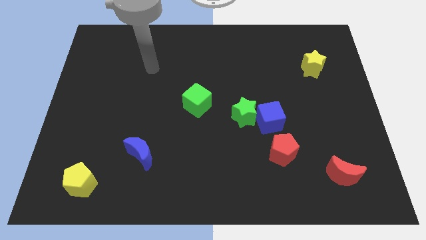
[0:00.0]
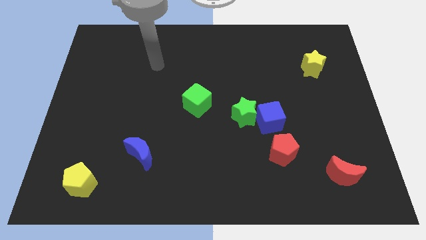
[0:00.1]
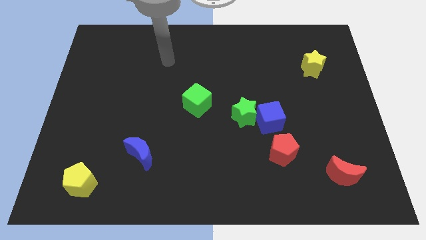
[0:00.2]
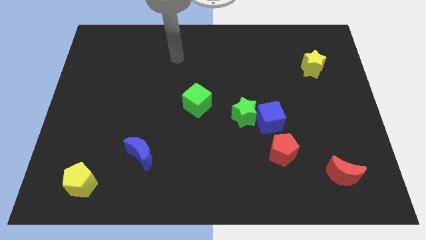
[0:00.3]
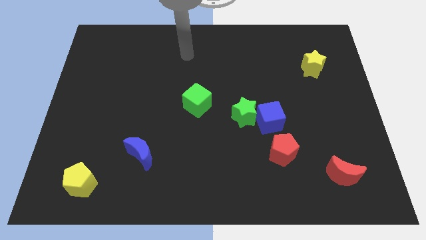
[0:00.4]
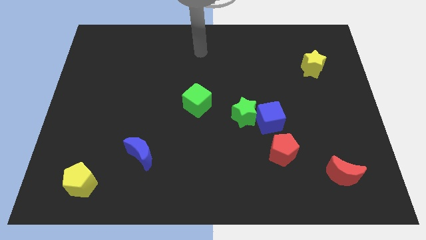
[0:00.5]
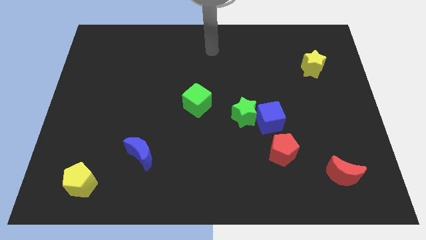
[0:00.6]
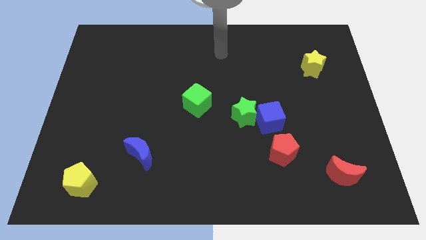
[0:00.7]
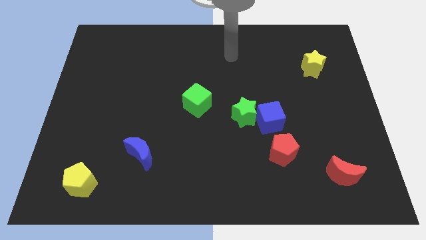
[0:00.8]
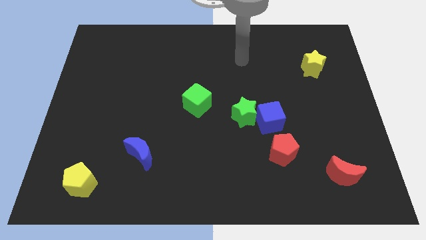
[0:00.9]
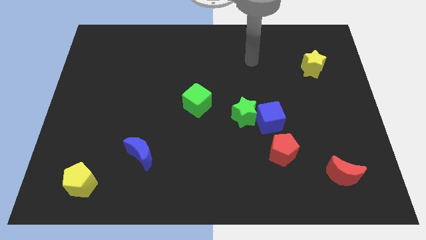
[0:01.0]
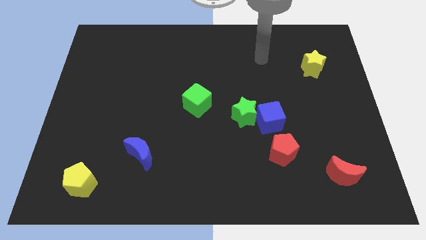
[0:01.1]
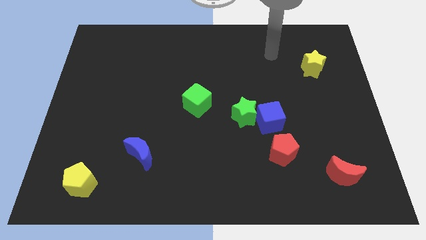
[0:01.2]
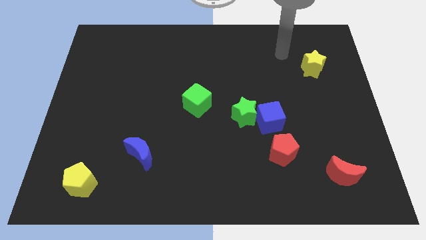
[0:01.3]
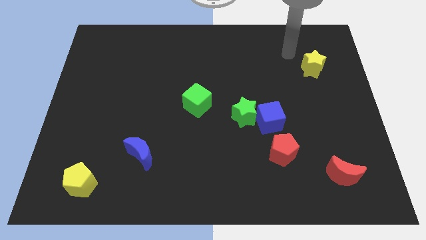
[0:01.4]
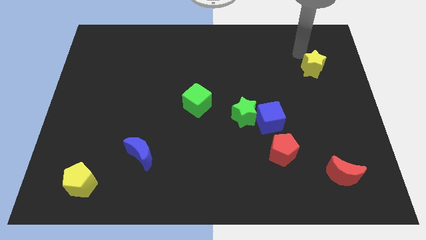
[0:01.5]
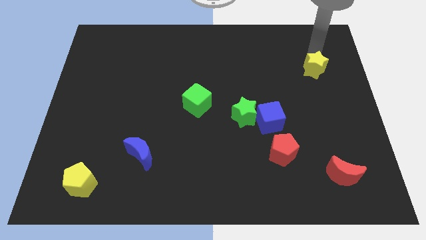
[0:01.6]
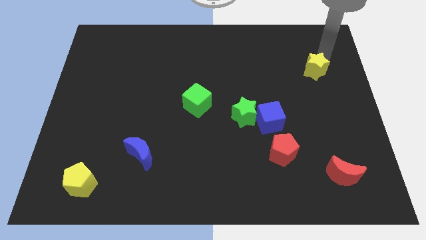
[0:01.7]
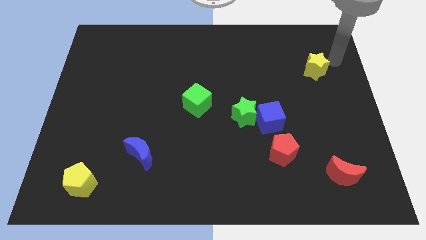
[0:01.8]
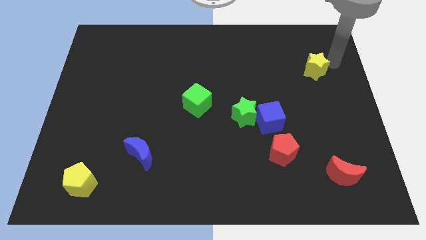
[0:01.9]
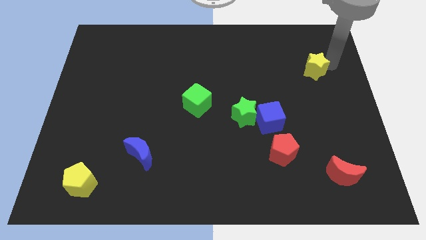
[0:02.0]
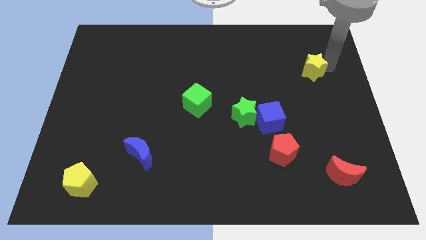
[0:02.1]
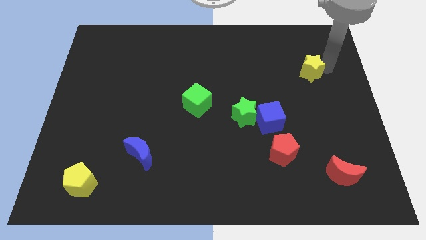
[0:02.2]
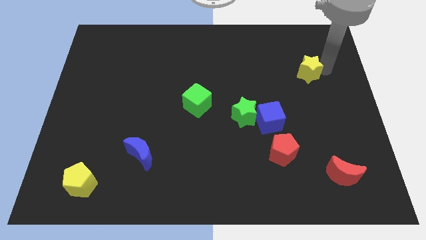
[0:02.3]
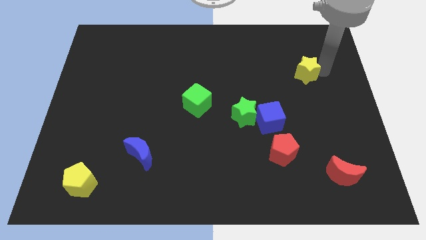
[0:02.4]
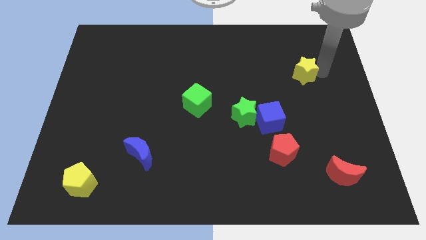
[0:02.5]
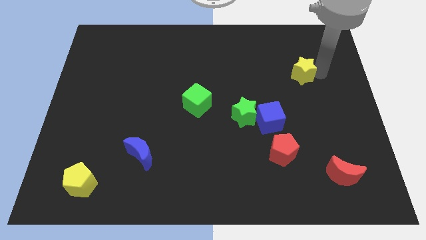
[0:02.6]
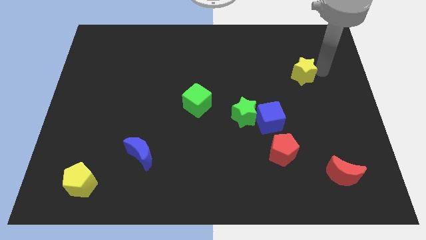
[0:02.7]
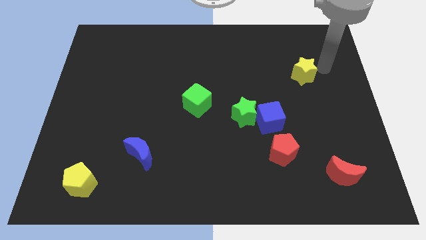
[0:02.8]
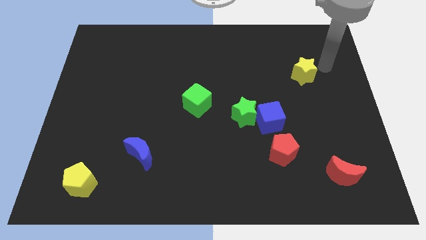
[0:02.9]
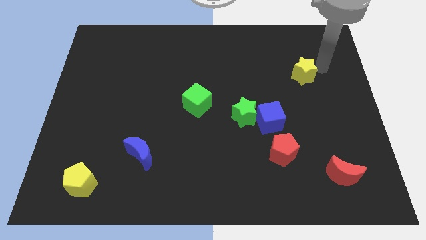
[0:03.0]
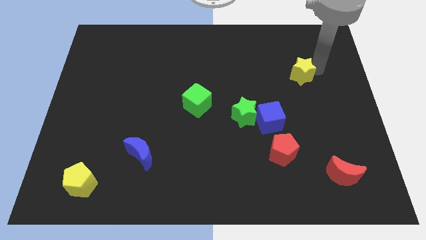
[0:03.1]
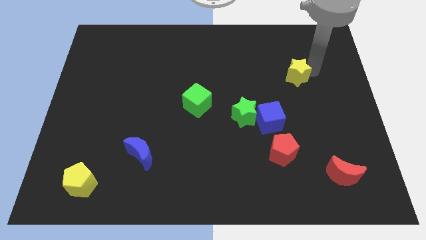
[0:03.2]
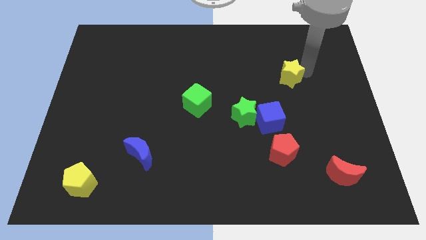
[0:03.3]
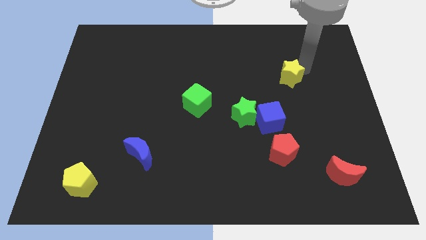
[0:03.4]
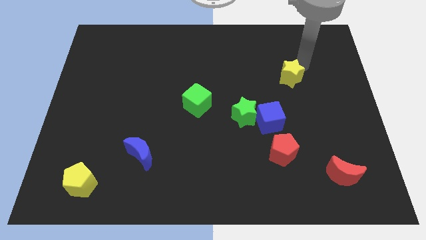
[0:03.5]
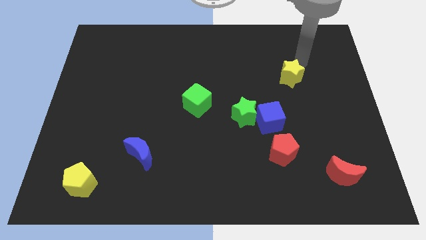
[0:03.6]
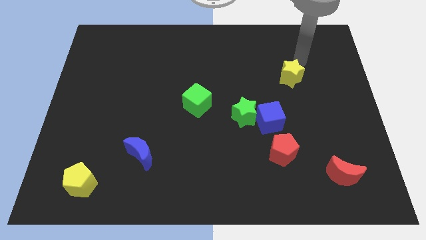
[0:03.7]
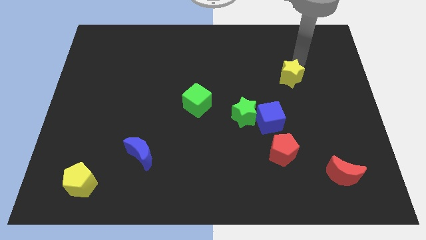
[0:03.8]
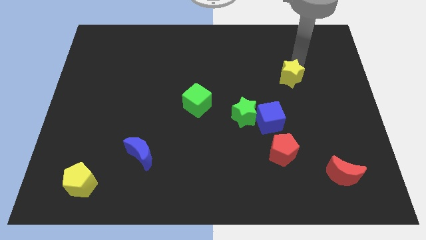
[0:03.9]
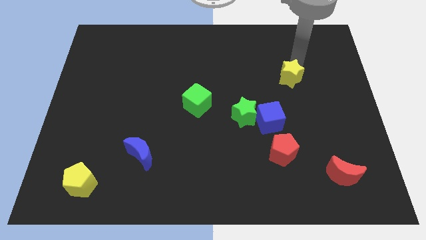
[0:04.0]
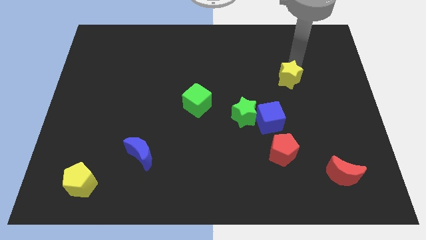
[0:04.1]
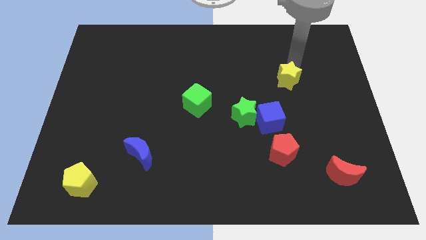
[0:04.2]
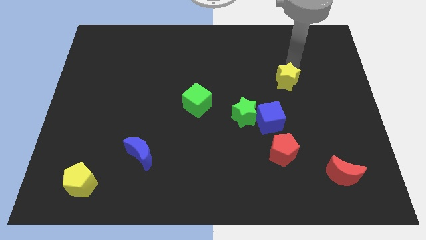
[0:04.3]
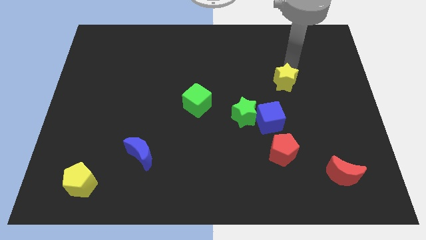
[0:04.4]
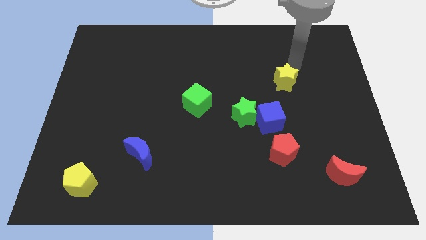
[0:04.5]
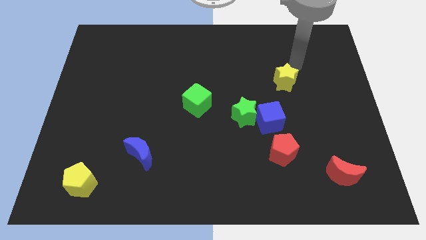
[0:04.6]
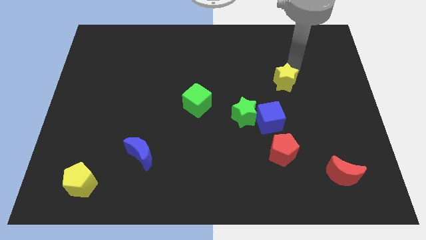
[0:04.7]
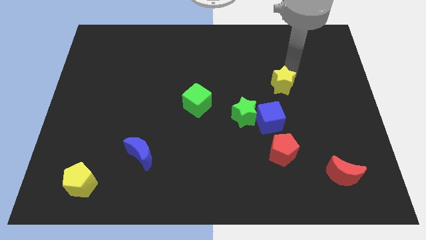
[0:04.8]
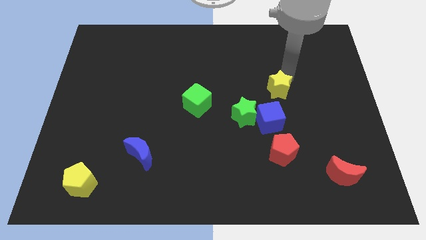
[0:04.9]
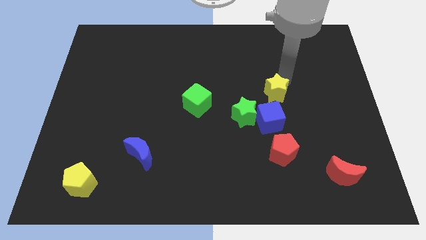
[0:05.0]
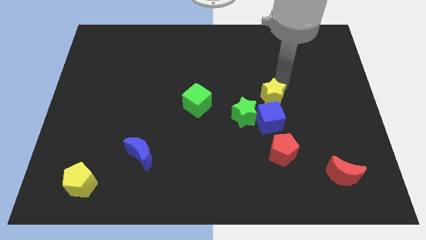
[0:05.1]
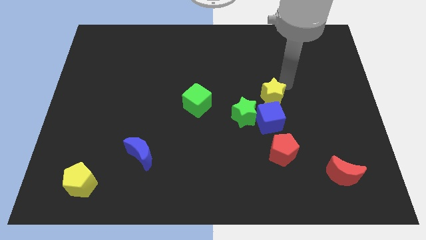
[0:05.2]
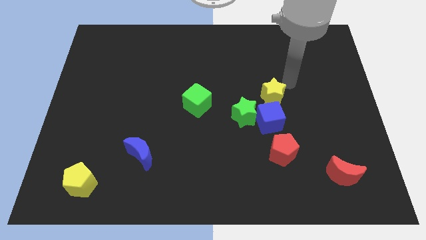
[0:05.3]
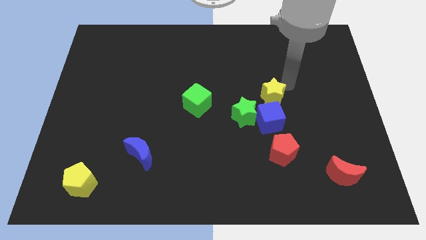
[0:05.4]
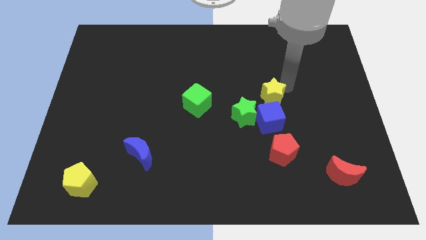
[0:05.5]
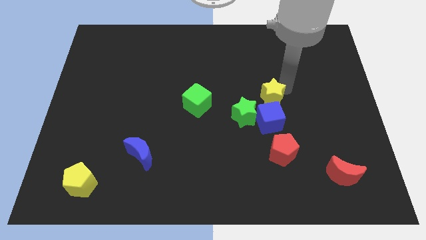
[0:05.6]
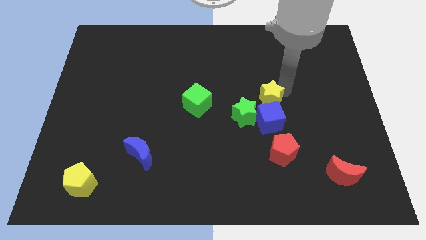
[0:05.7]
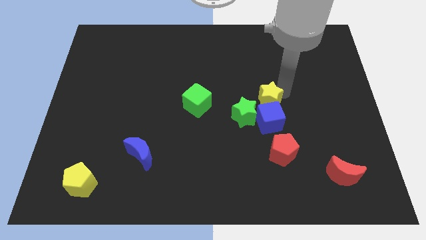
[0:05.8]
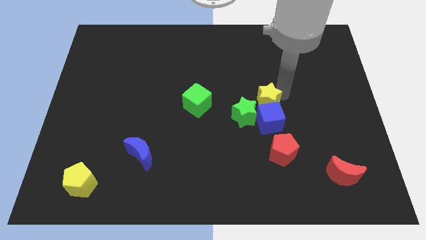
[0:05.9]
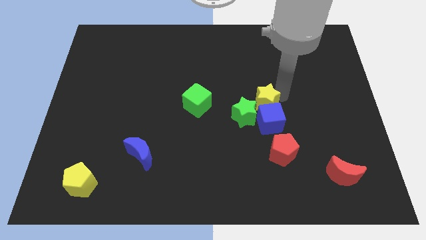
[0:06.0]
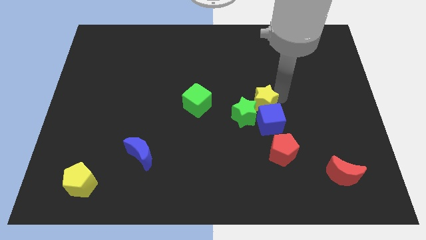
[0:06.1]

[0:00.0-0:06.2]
put the yellow star to the green star

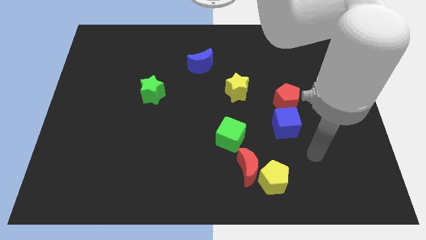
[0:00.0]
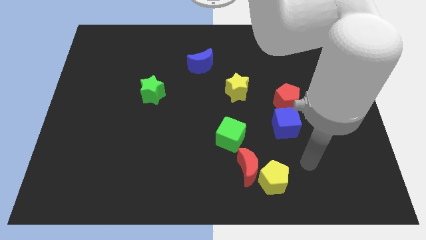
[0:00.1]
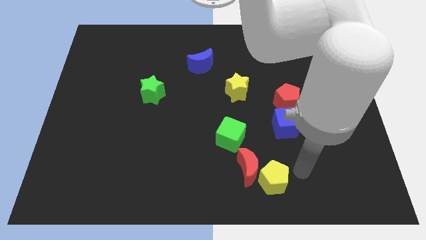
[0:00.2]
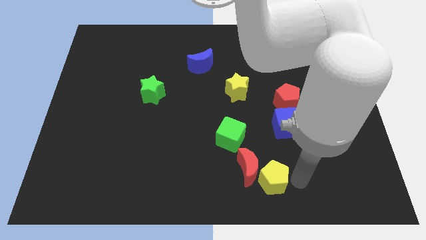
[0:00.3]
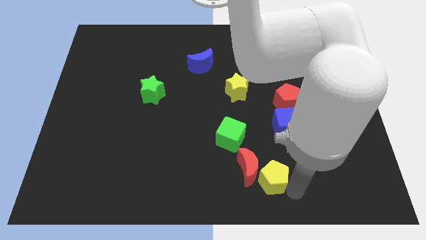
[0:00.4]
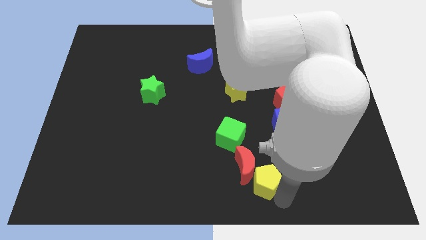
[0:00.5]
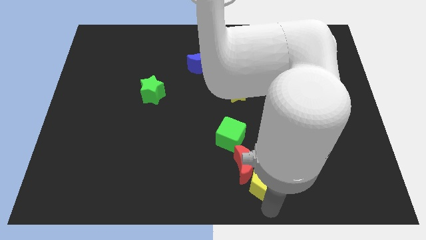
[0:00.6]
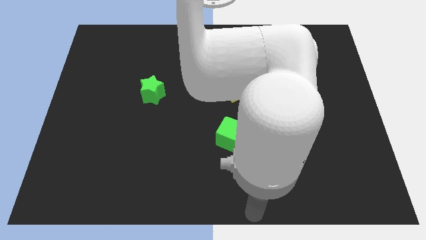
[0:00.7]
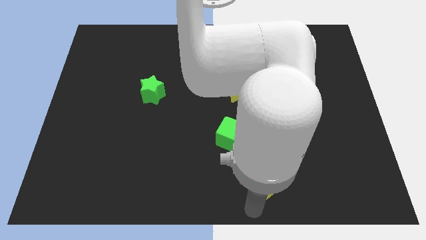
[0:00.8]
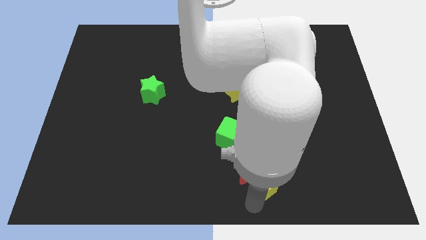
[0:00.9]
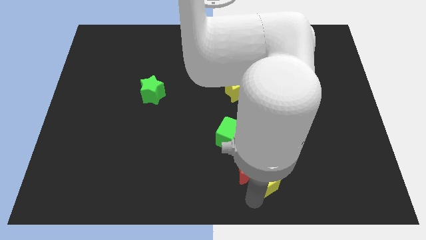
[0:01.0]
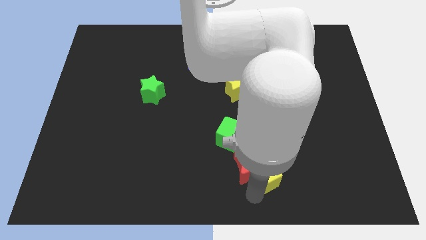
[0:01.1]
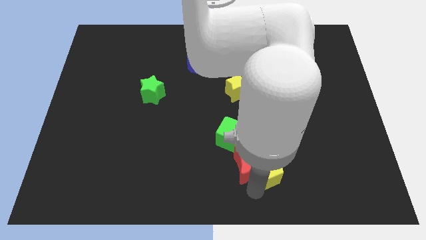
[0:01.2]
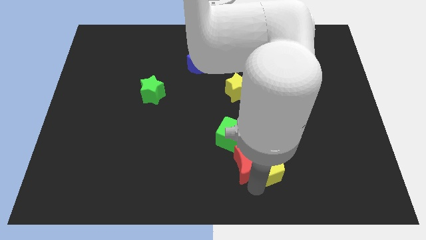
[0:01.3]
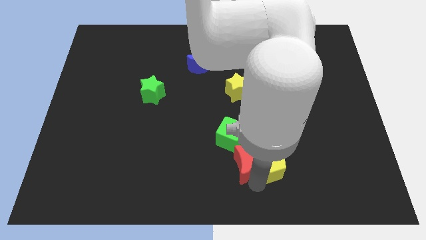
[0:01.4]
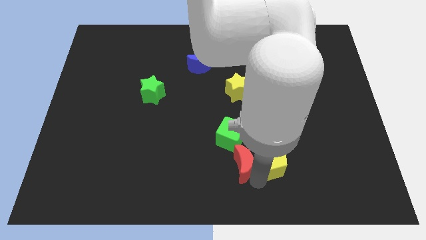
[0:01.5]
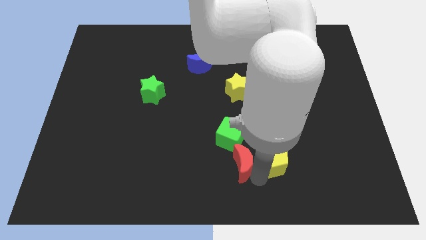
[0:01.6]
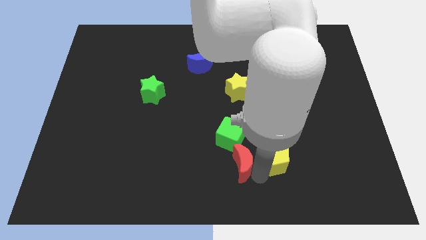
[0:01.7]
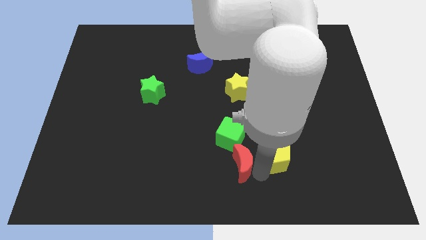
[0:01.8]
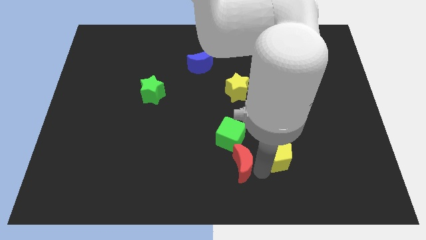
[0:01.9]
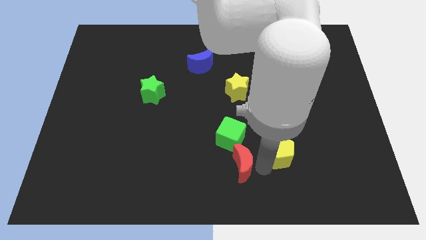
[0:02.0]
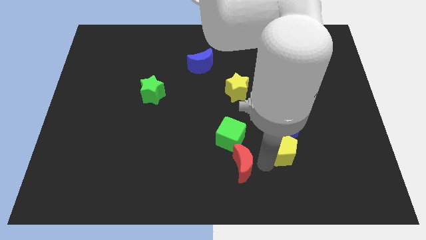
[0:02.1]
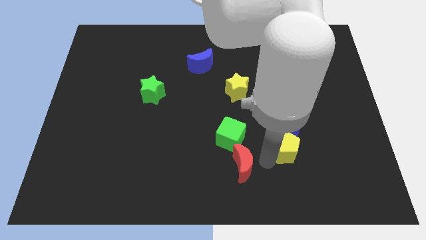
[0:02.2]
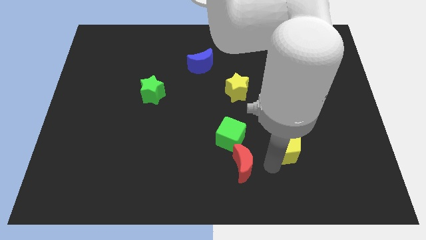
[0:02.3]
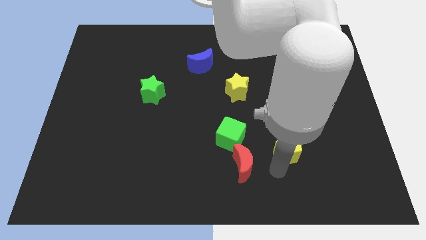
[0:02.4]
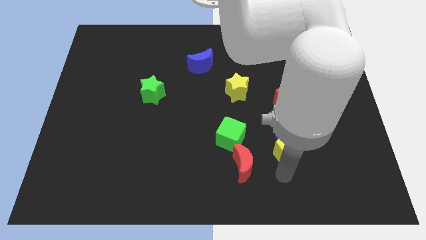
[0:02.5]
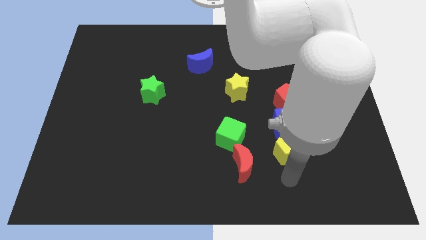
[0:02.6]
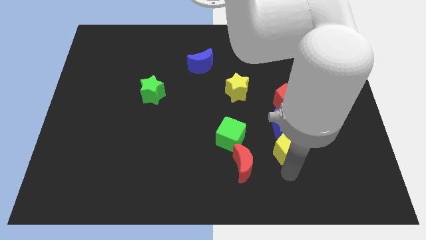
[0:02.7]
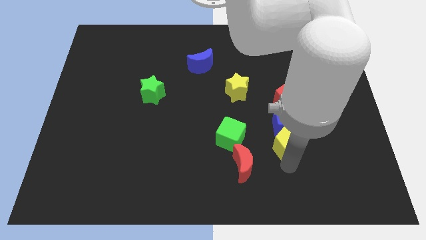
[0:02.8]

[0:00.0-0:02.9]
put the yellow pentagon next to the blue cube
